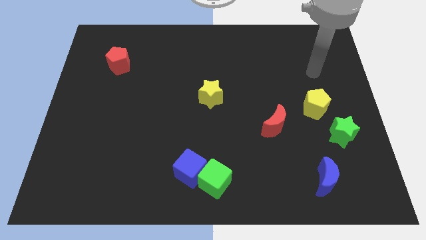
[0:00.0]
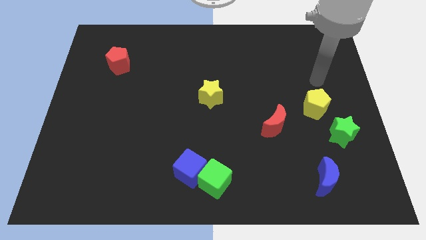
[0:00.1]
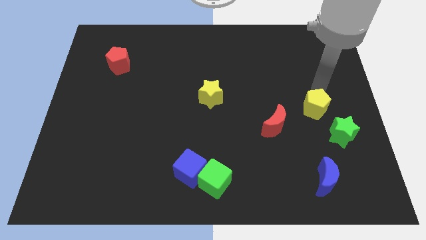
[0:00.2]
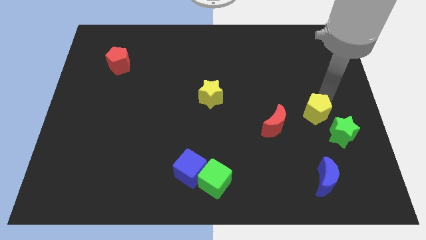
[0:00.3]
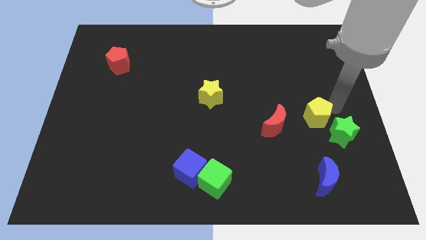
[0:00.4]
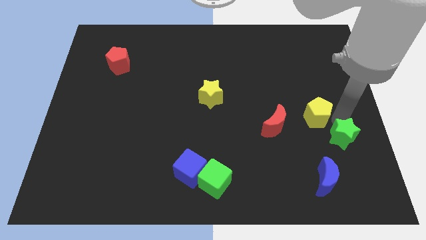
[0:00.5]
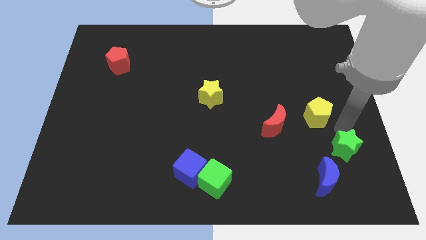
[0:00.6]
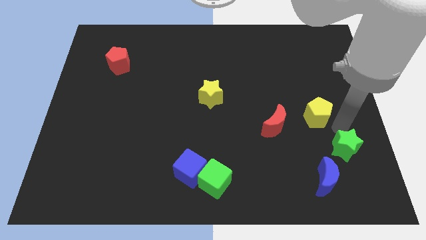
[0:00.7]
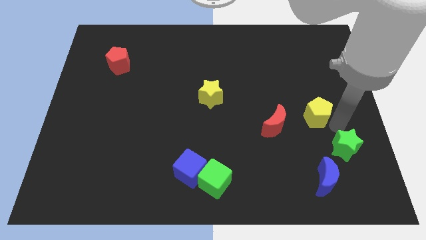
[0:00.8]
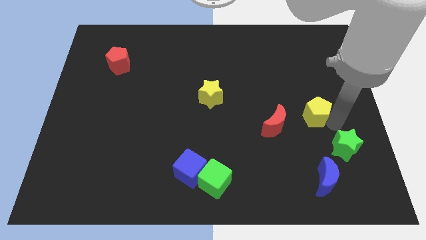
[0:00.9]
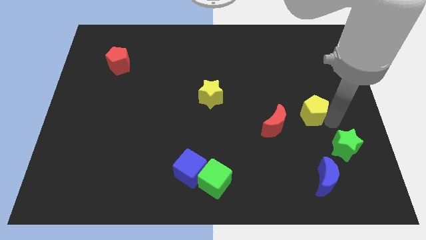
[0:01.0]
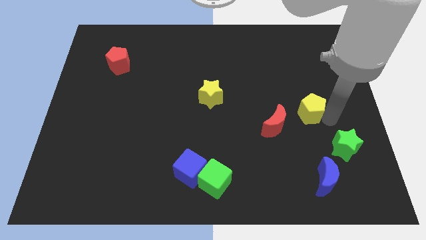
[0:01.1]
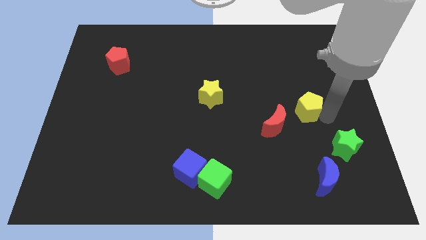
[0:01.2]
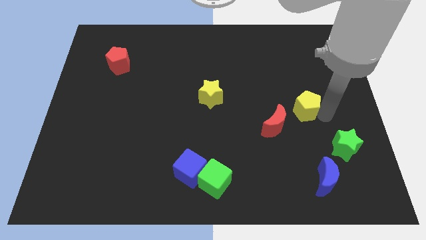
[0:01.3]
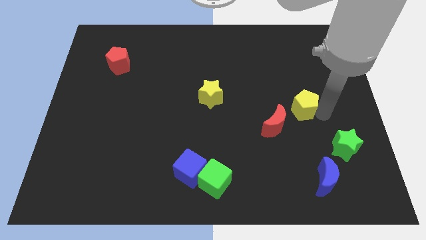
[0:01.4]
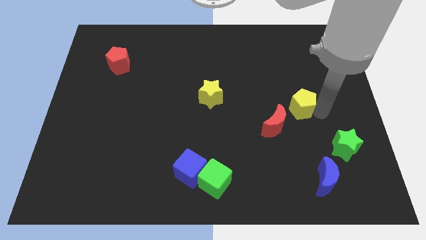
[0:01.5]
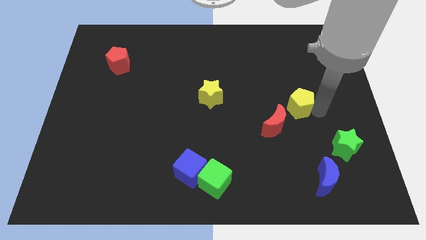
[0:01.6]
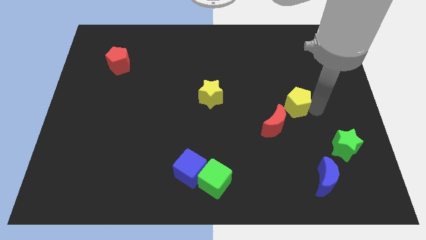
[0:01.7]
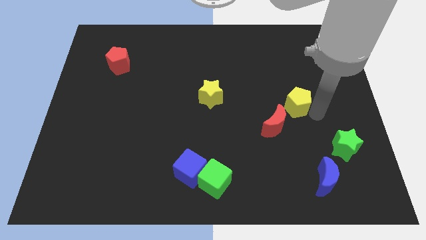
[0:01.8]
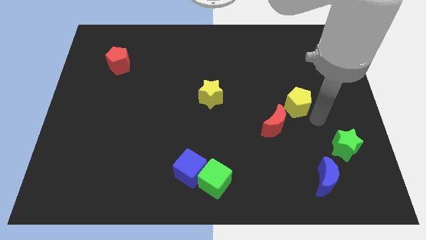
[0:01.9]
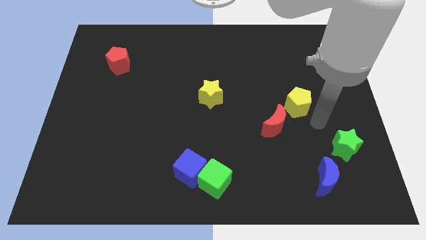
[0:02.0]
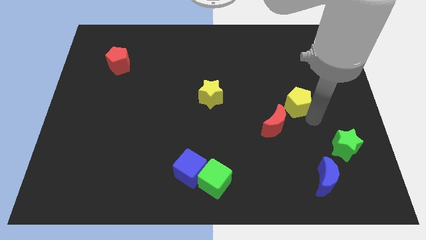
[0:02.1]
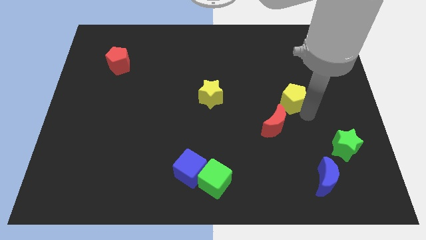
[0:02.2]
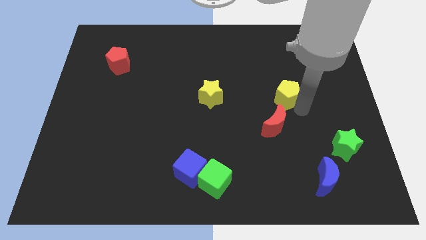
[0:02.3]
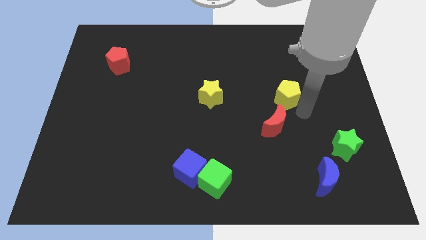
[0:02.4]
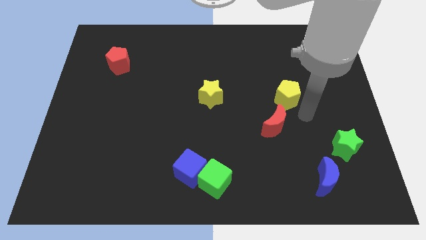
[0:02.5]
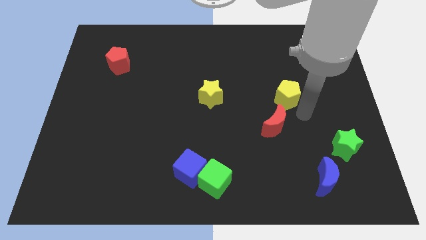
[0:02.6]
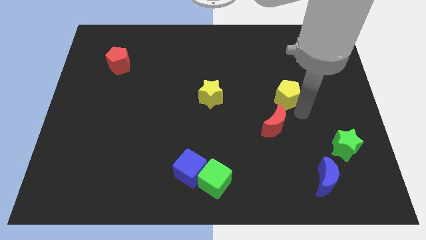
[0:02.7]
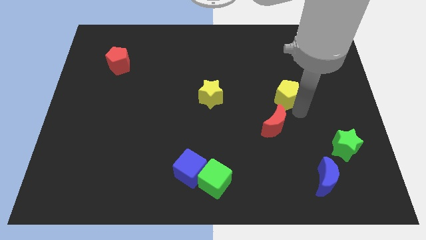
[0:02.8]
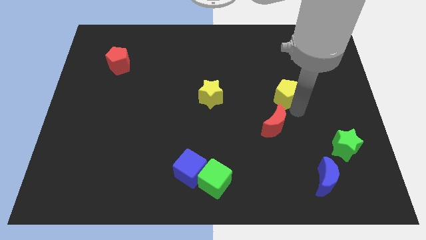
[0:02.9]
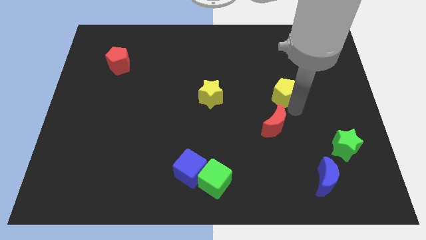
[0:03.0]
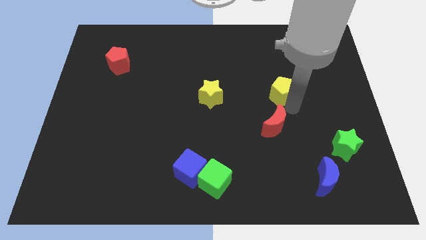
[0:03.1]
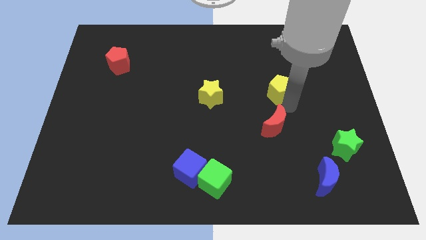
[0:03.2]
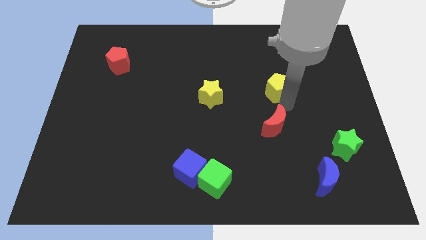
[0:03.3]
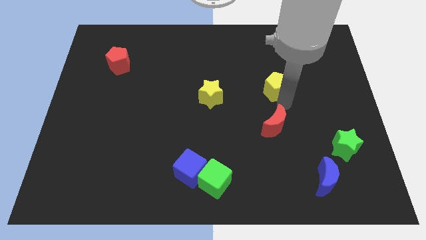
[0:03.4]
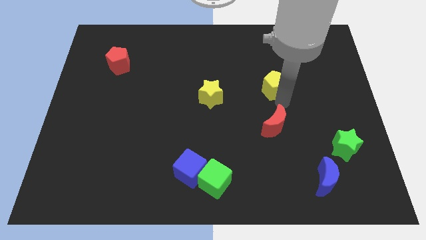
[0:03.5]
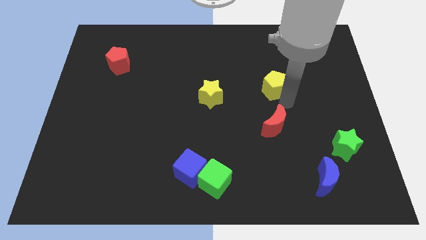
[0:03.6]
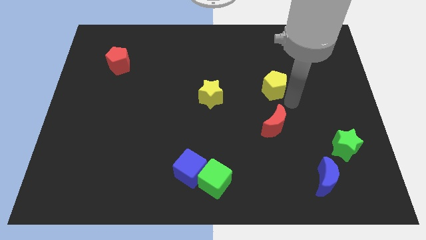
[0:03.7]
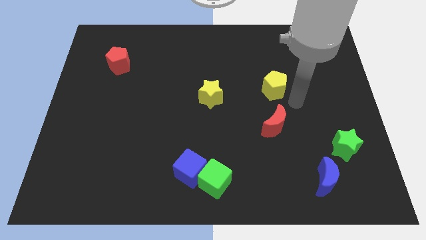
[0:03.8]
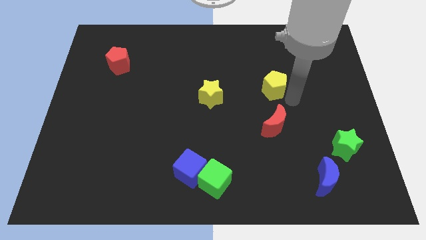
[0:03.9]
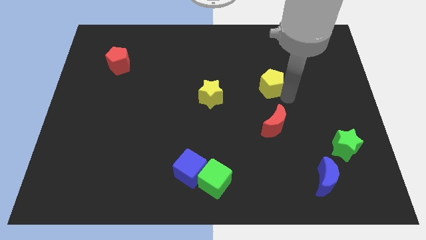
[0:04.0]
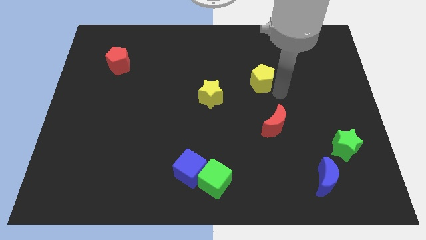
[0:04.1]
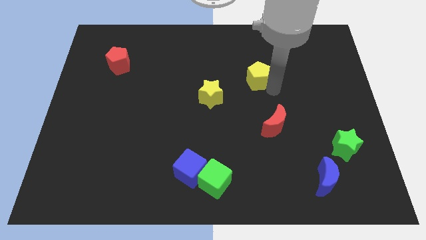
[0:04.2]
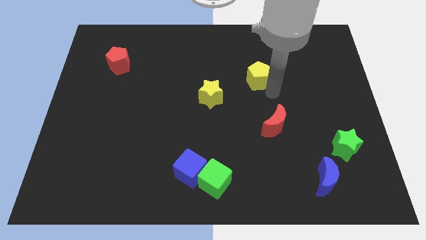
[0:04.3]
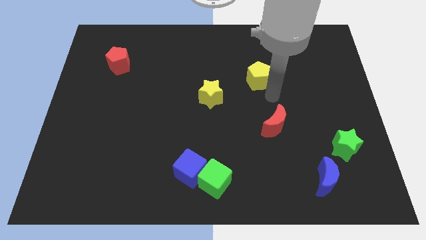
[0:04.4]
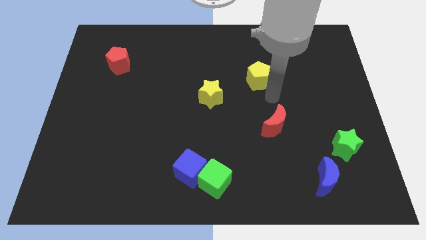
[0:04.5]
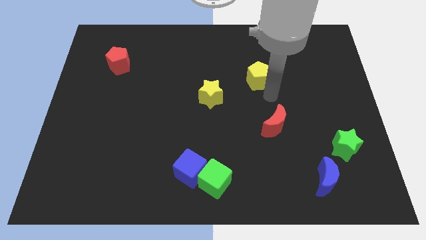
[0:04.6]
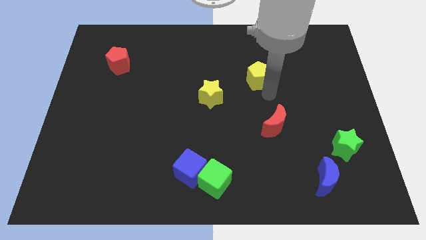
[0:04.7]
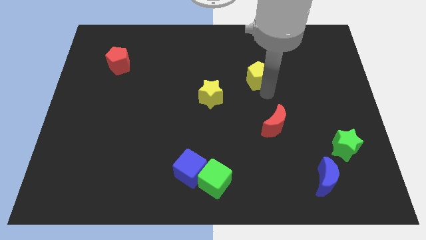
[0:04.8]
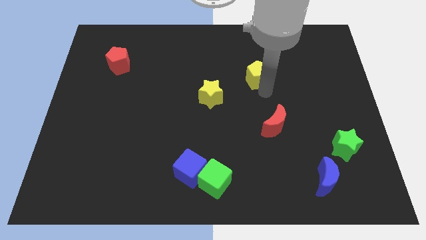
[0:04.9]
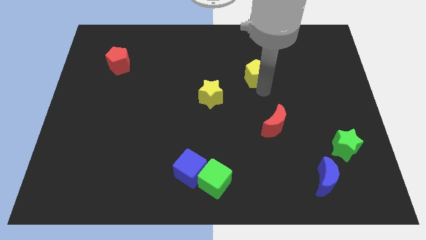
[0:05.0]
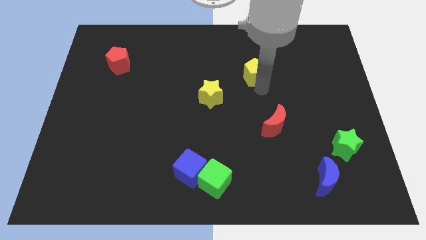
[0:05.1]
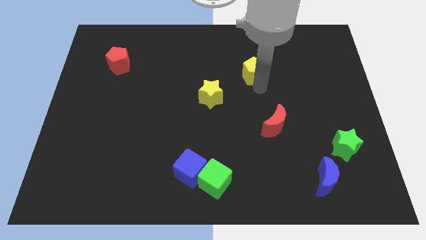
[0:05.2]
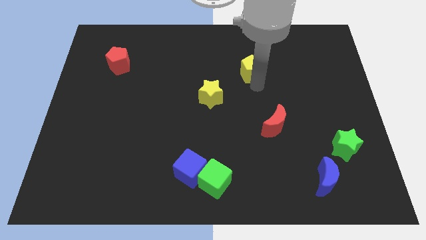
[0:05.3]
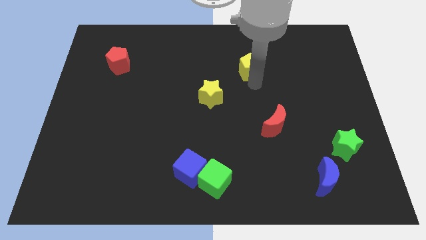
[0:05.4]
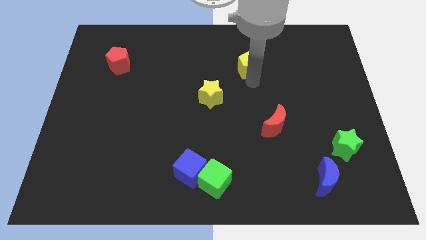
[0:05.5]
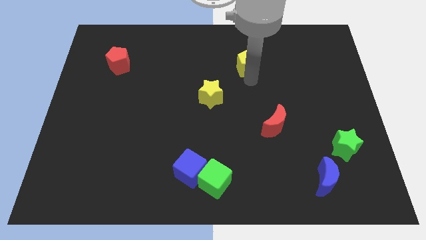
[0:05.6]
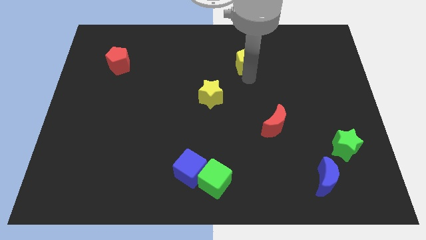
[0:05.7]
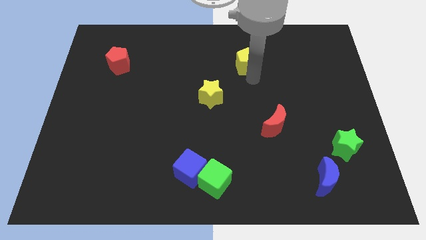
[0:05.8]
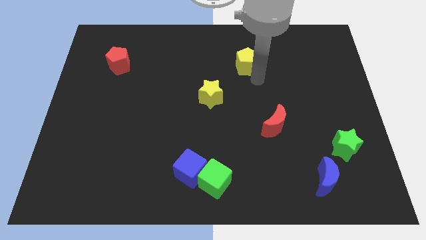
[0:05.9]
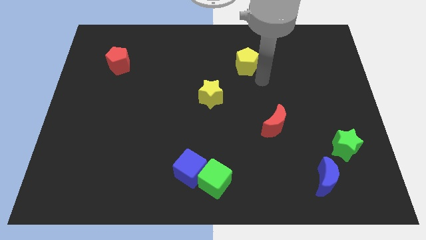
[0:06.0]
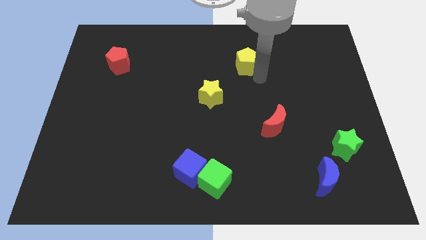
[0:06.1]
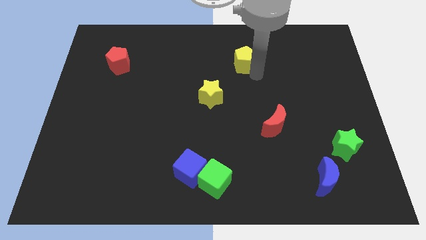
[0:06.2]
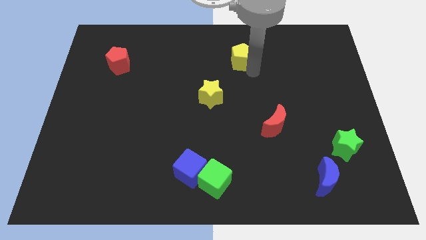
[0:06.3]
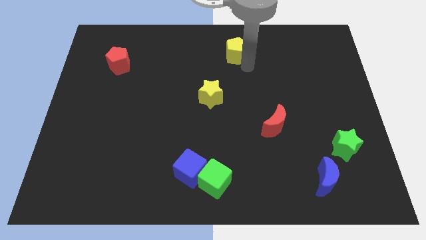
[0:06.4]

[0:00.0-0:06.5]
push the yellow pentagon to the top
